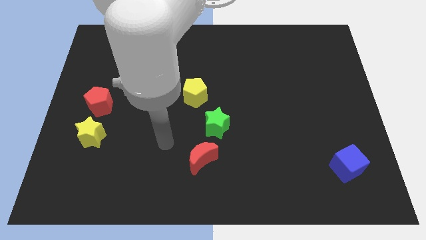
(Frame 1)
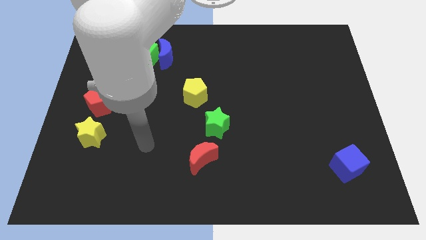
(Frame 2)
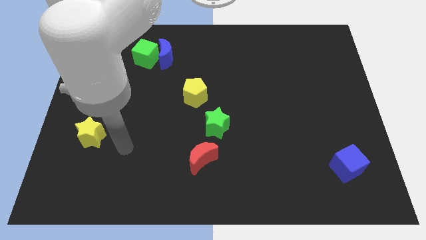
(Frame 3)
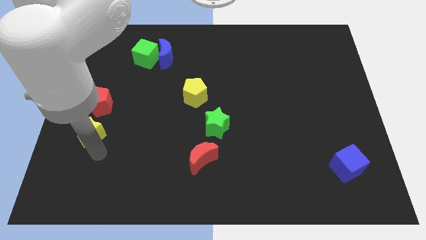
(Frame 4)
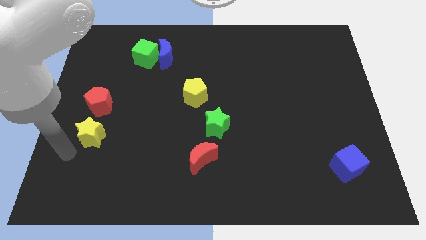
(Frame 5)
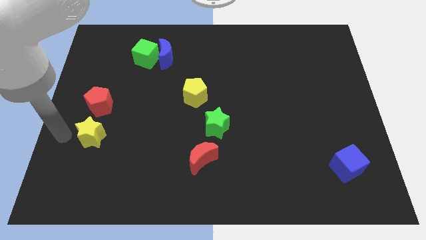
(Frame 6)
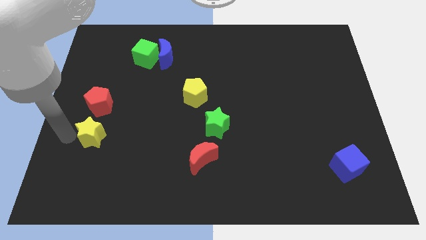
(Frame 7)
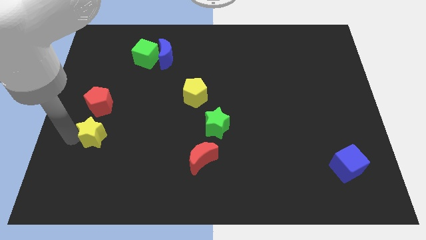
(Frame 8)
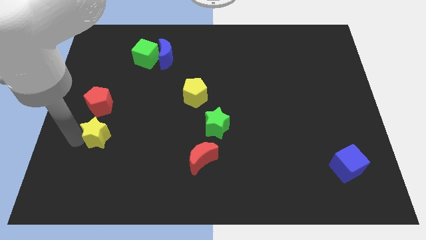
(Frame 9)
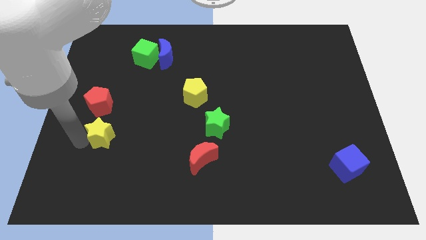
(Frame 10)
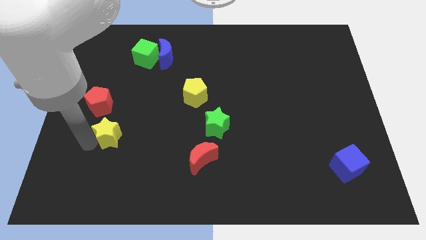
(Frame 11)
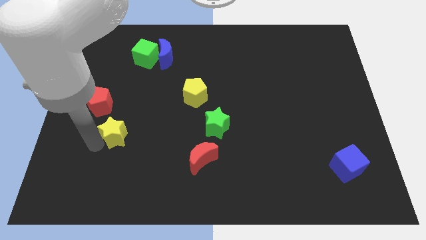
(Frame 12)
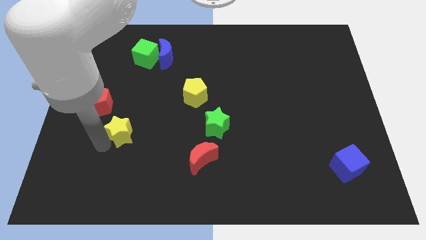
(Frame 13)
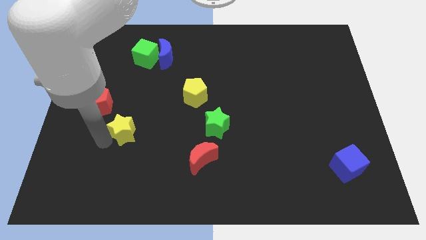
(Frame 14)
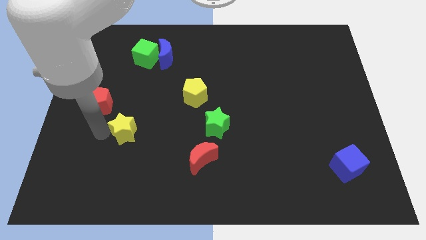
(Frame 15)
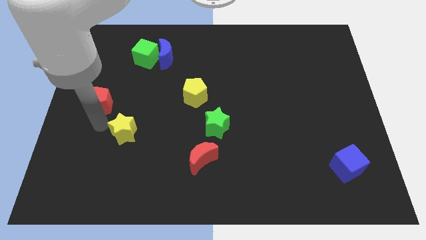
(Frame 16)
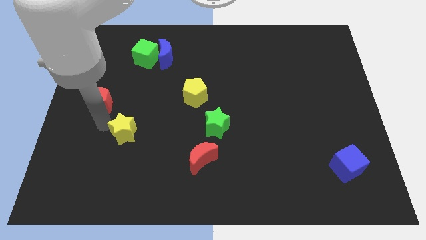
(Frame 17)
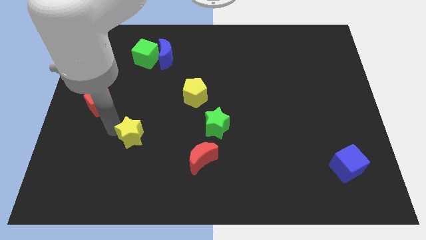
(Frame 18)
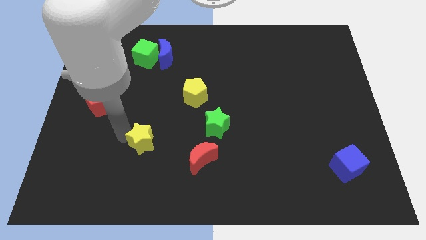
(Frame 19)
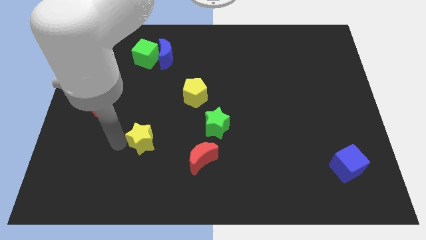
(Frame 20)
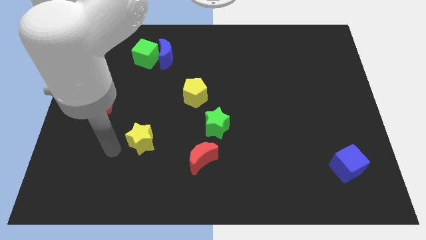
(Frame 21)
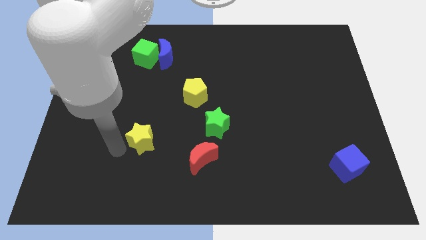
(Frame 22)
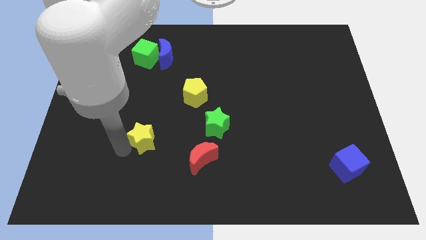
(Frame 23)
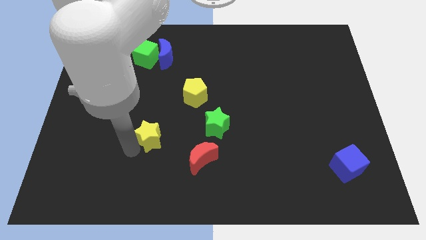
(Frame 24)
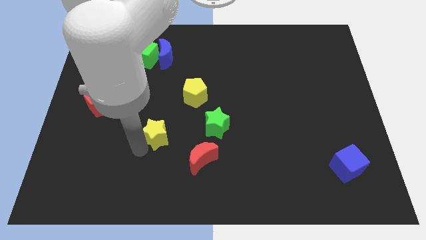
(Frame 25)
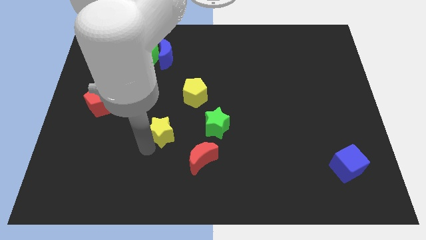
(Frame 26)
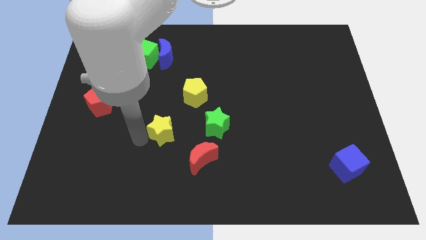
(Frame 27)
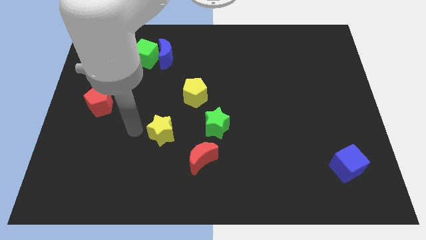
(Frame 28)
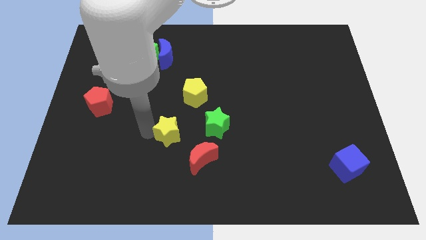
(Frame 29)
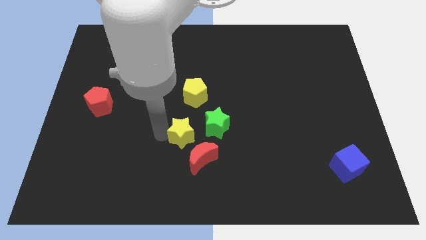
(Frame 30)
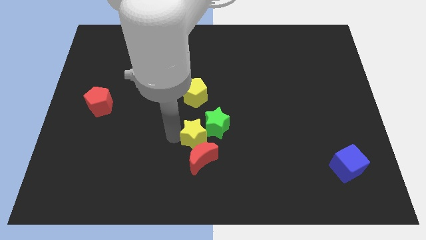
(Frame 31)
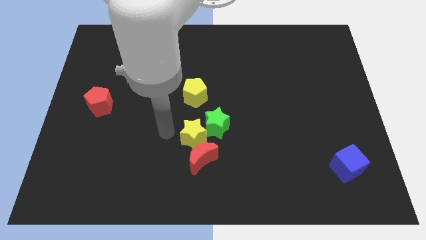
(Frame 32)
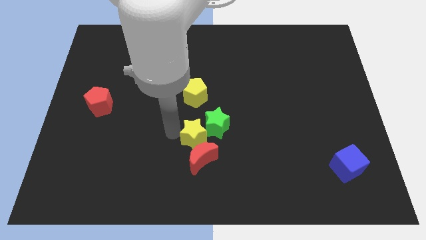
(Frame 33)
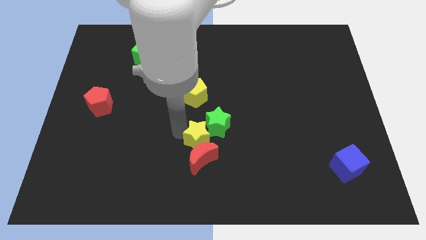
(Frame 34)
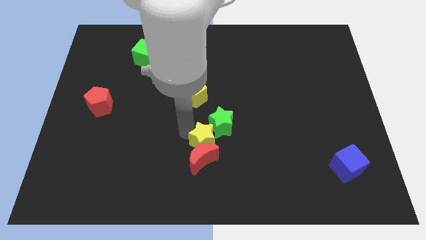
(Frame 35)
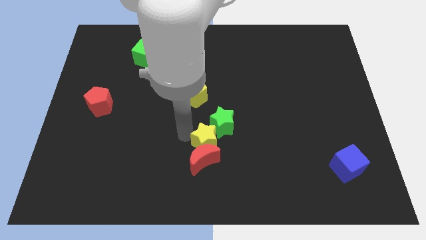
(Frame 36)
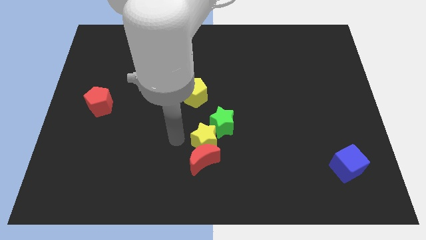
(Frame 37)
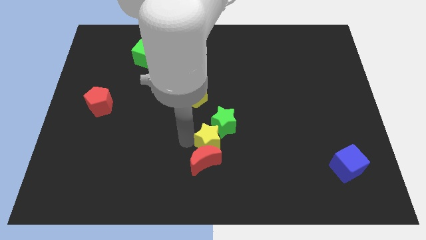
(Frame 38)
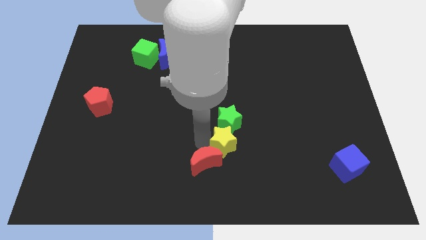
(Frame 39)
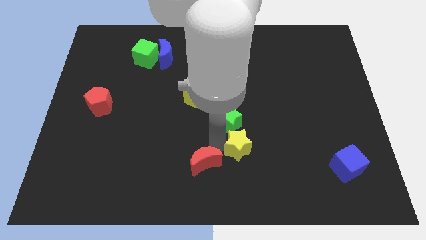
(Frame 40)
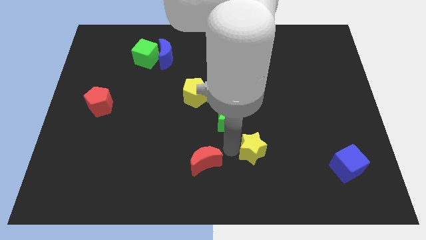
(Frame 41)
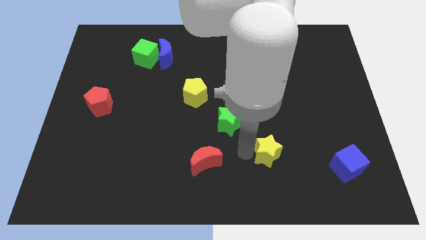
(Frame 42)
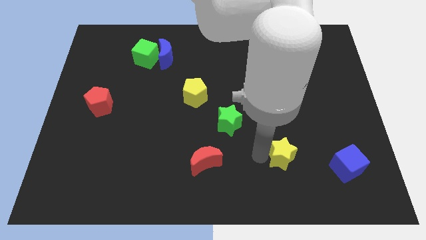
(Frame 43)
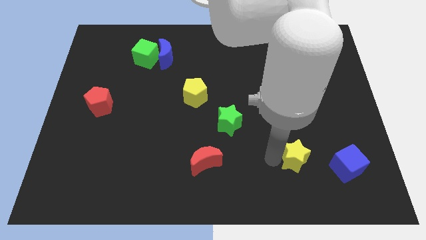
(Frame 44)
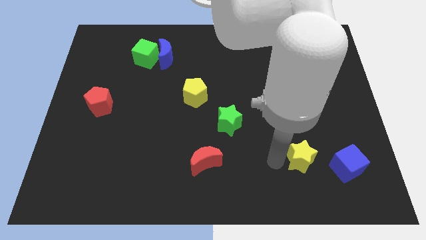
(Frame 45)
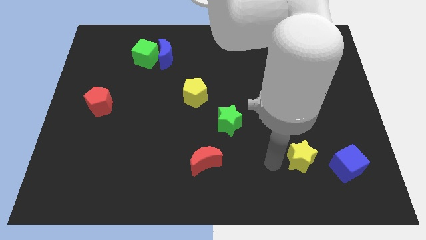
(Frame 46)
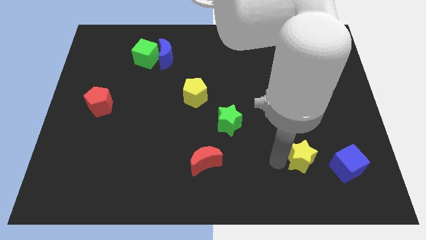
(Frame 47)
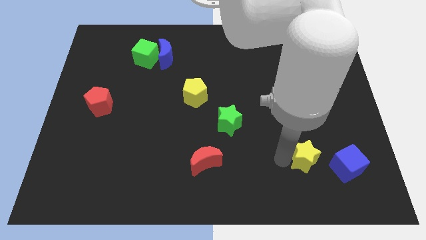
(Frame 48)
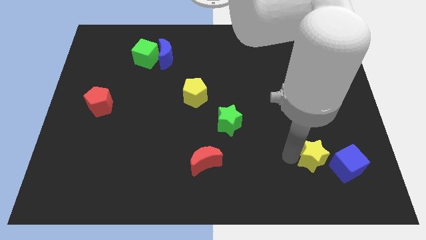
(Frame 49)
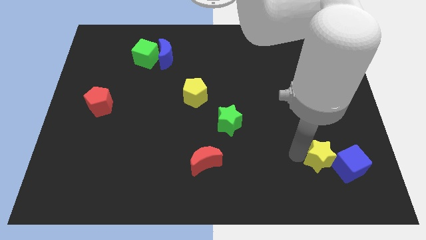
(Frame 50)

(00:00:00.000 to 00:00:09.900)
move the yellow star towards the blue cube

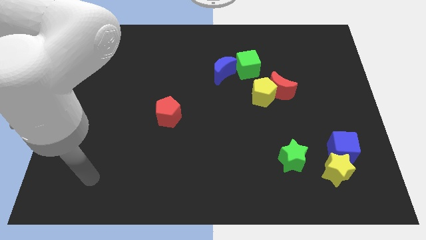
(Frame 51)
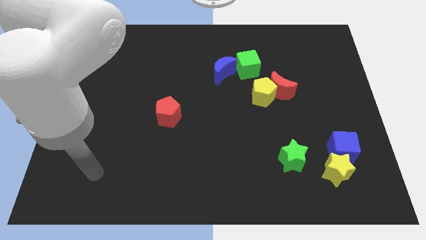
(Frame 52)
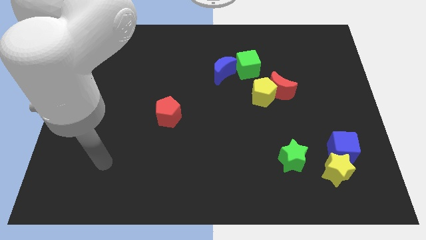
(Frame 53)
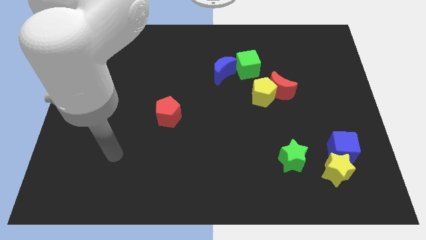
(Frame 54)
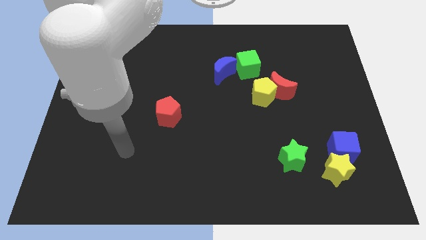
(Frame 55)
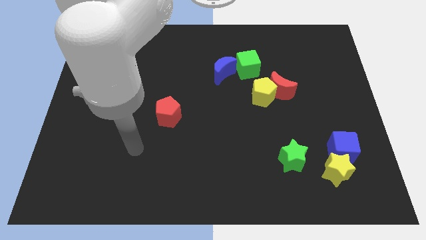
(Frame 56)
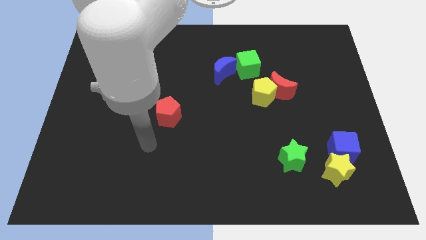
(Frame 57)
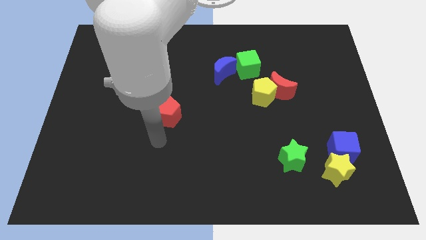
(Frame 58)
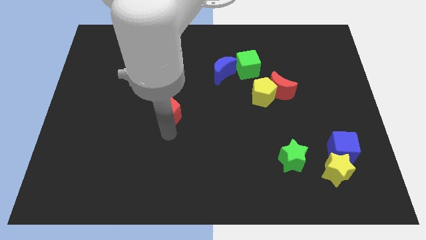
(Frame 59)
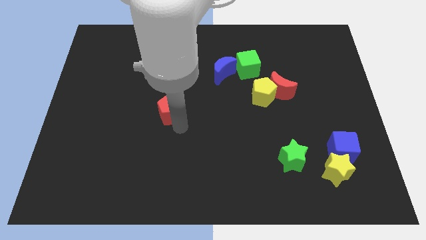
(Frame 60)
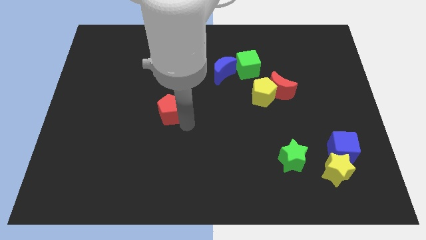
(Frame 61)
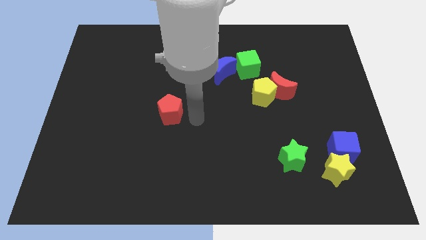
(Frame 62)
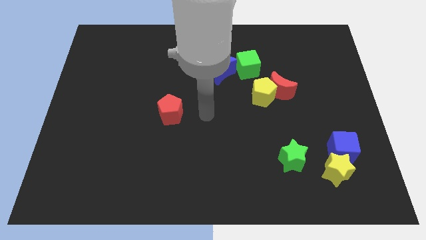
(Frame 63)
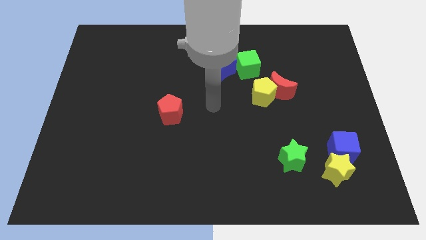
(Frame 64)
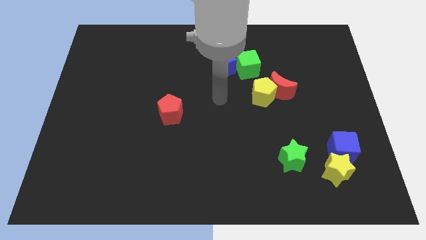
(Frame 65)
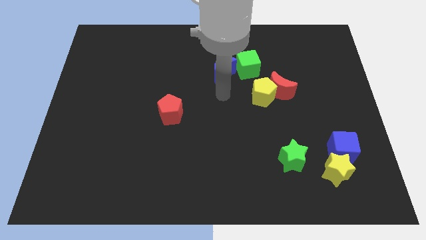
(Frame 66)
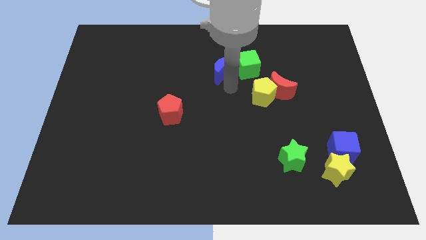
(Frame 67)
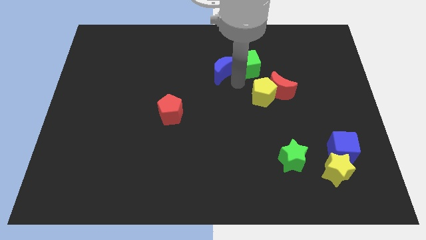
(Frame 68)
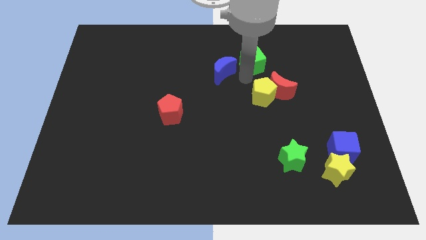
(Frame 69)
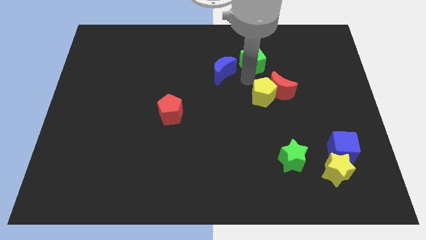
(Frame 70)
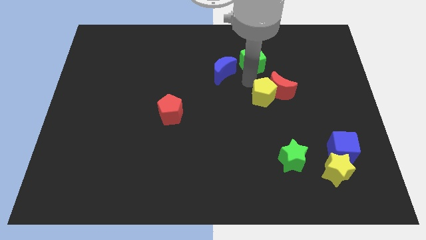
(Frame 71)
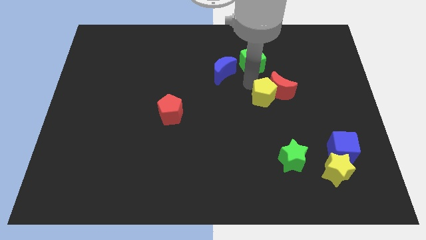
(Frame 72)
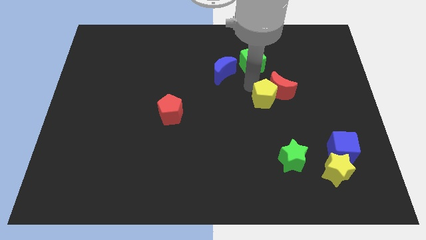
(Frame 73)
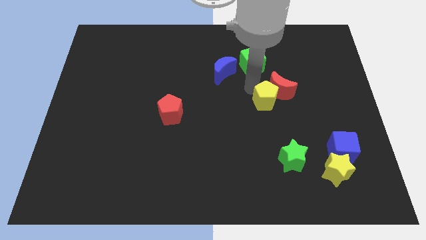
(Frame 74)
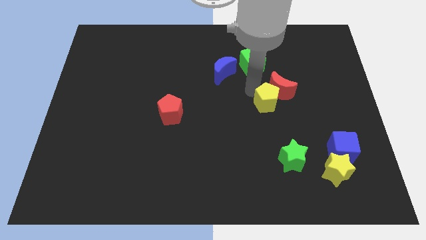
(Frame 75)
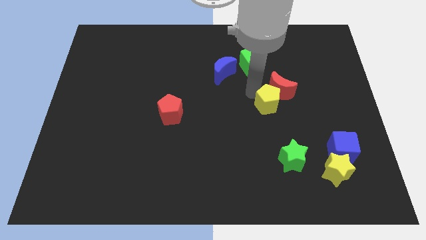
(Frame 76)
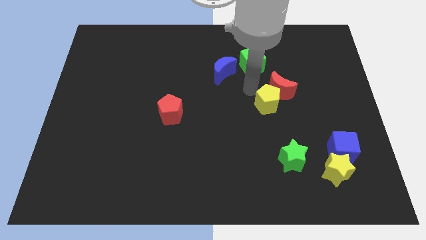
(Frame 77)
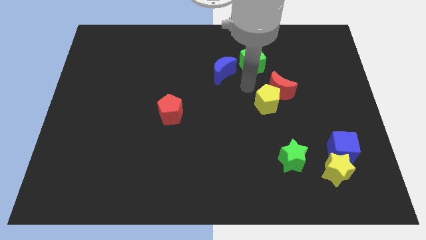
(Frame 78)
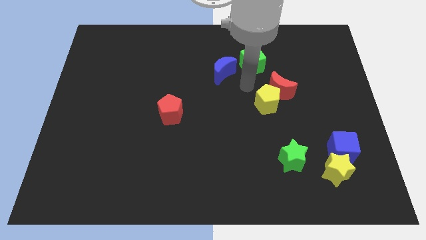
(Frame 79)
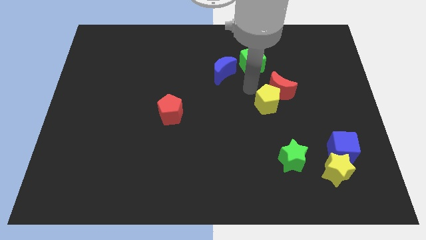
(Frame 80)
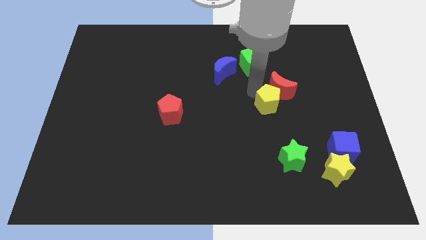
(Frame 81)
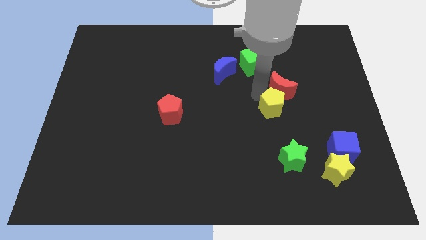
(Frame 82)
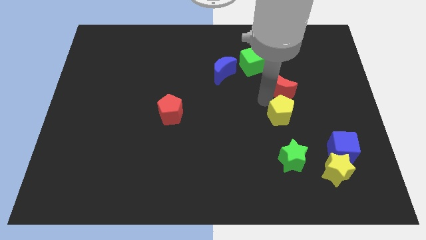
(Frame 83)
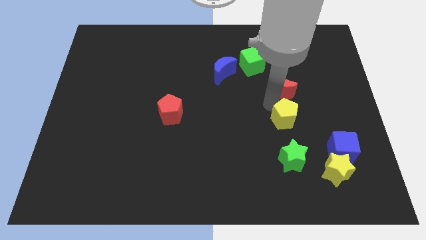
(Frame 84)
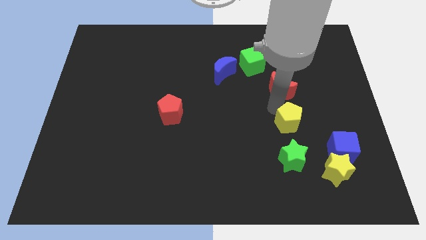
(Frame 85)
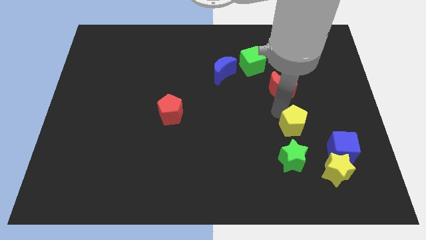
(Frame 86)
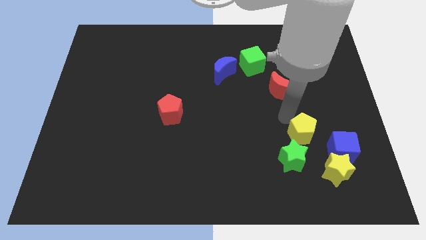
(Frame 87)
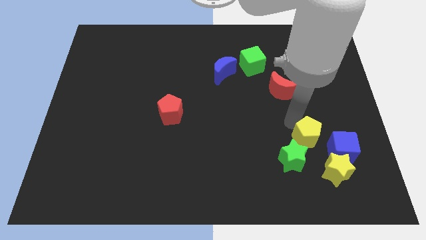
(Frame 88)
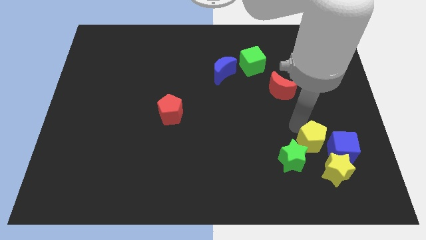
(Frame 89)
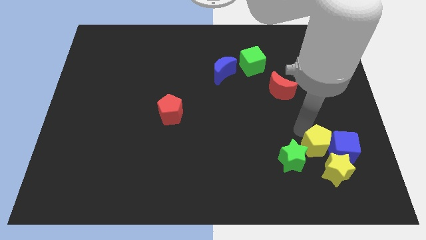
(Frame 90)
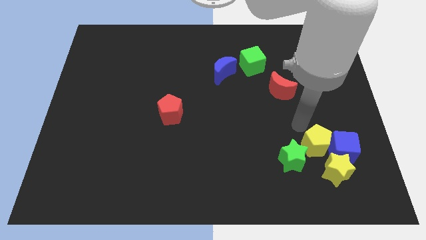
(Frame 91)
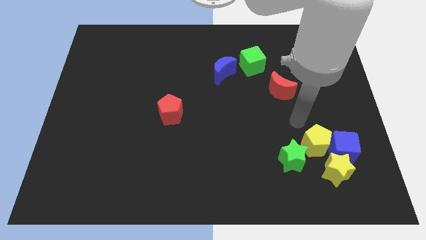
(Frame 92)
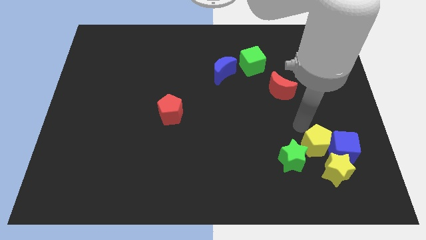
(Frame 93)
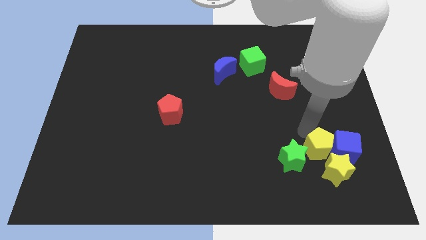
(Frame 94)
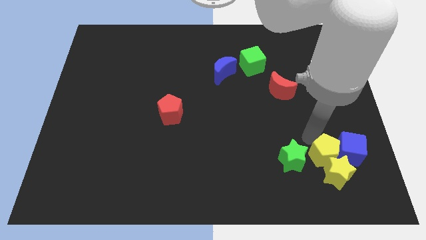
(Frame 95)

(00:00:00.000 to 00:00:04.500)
push the yellow pentagon towards the yellow star
